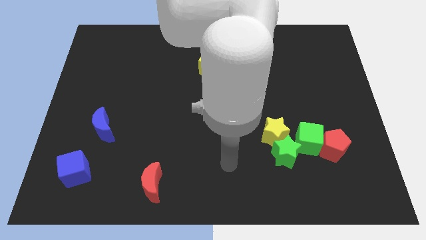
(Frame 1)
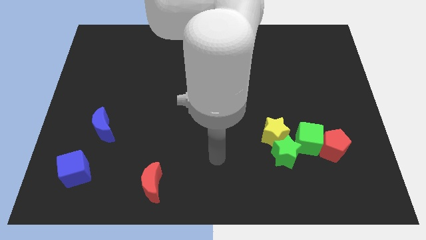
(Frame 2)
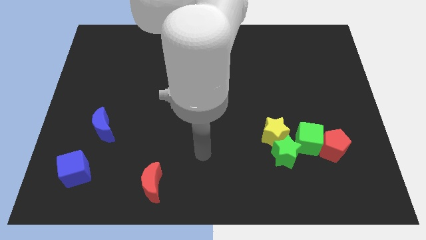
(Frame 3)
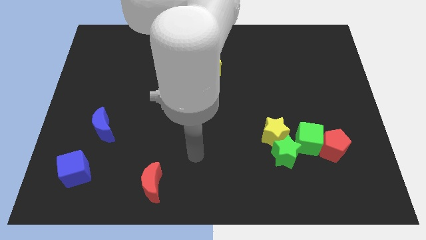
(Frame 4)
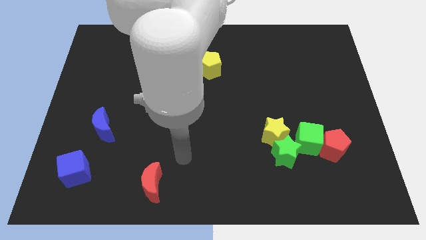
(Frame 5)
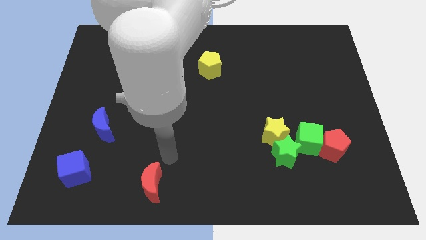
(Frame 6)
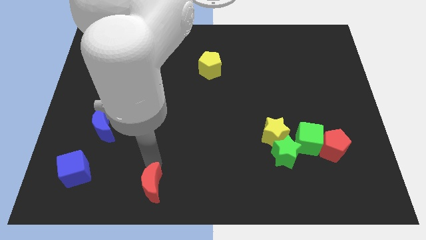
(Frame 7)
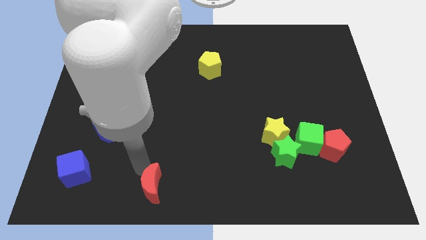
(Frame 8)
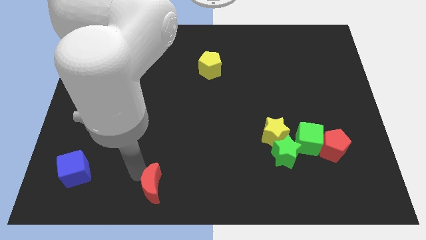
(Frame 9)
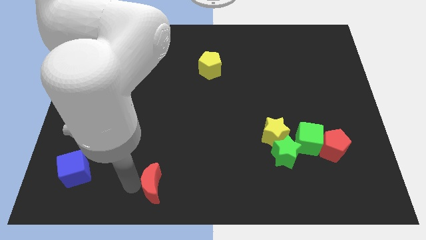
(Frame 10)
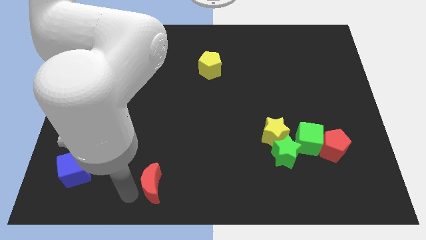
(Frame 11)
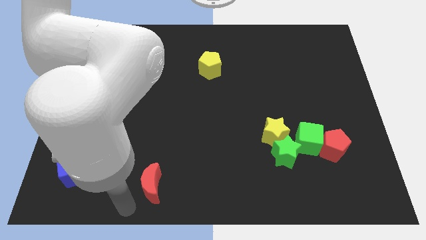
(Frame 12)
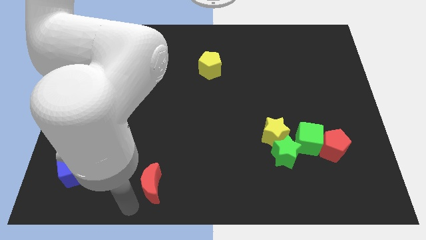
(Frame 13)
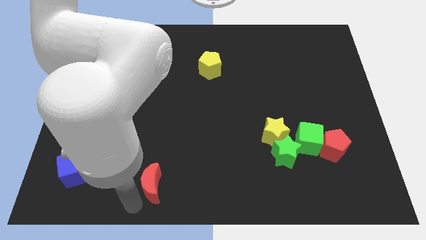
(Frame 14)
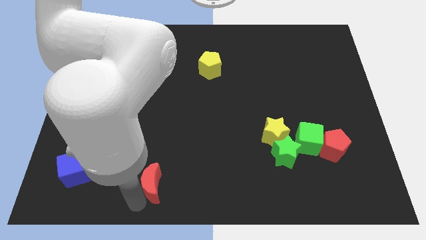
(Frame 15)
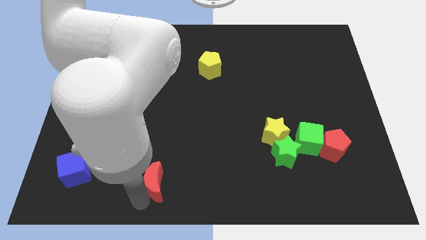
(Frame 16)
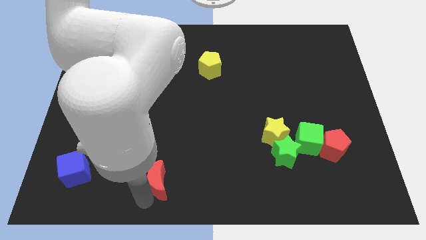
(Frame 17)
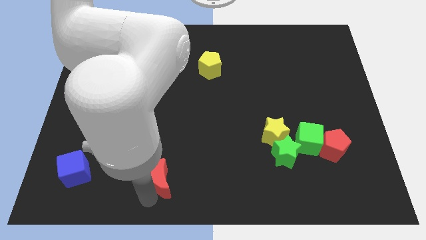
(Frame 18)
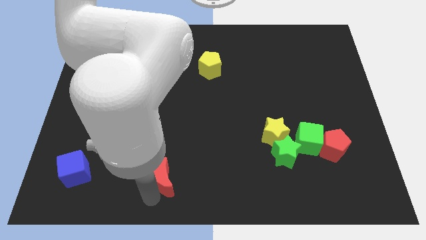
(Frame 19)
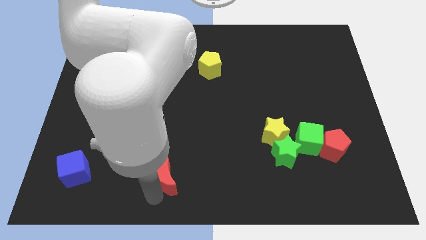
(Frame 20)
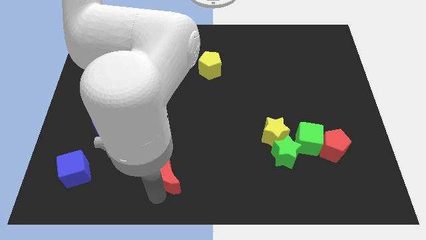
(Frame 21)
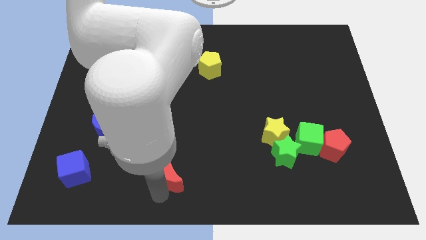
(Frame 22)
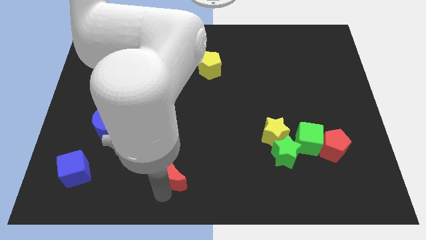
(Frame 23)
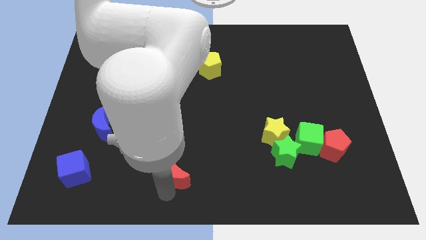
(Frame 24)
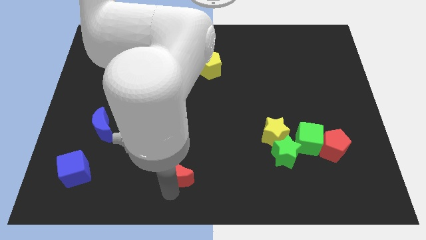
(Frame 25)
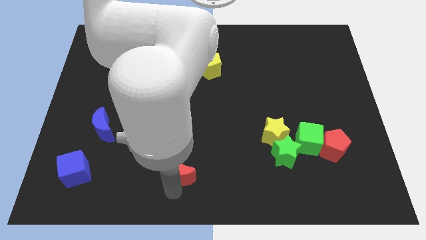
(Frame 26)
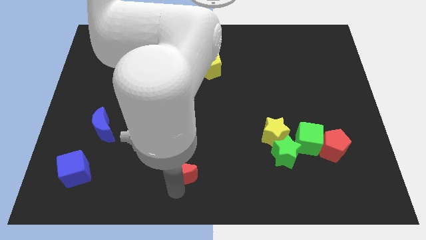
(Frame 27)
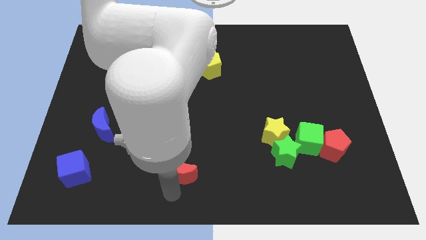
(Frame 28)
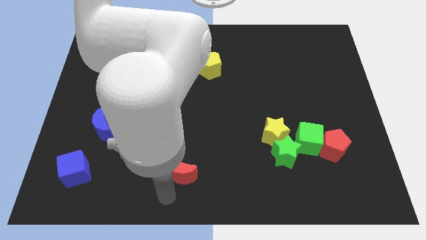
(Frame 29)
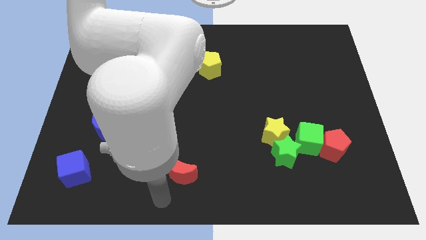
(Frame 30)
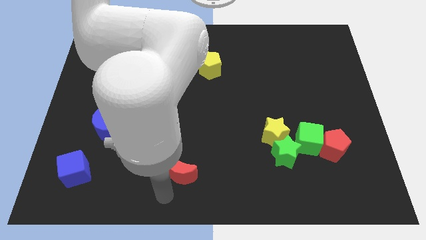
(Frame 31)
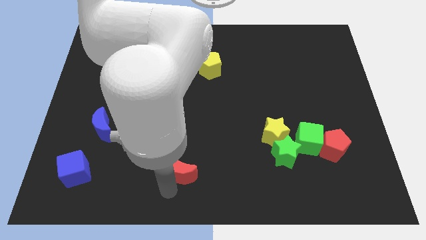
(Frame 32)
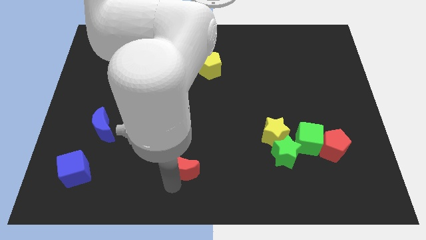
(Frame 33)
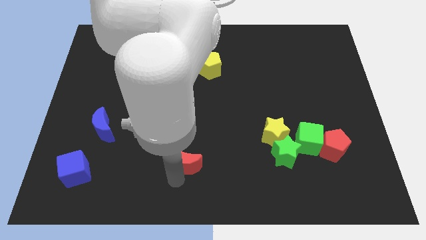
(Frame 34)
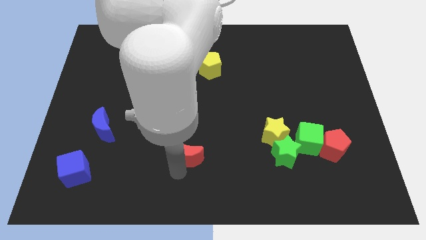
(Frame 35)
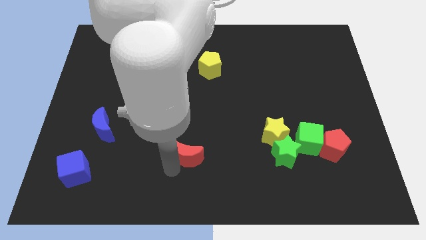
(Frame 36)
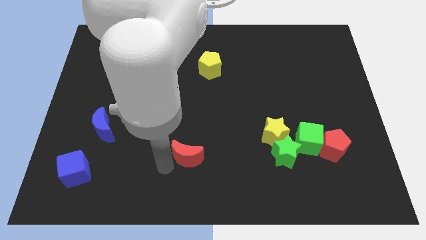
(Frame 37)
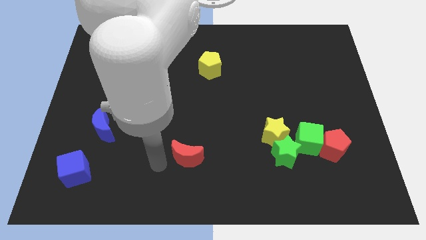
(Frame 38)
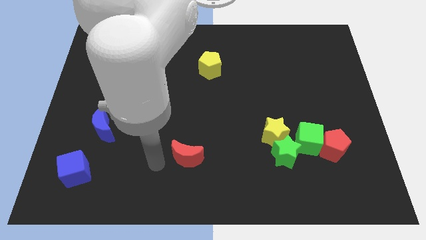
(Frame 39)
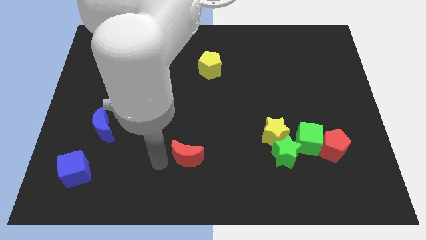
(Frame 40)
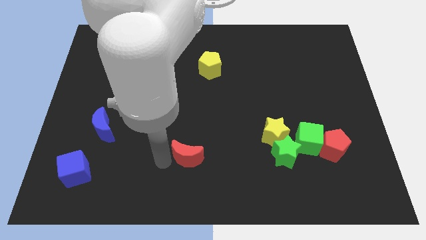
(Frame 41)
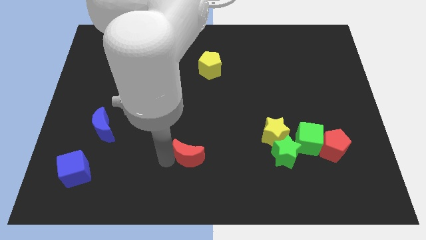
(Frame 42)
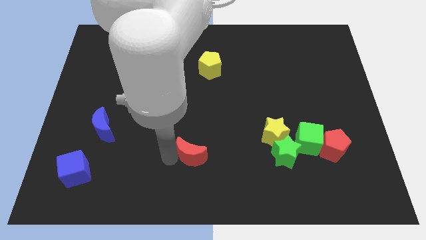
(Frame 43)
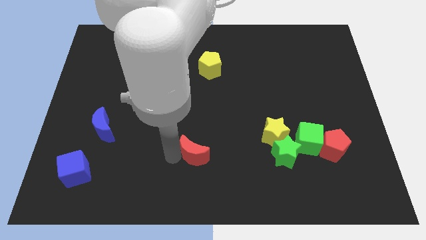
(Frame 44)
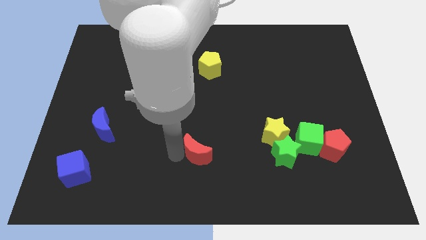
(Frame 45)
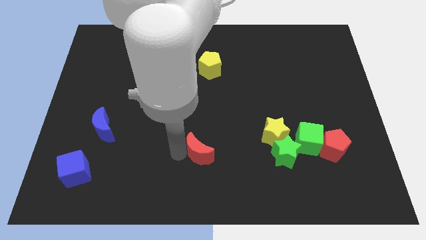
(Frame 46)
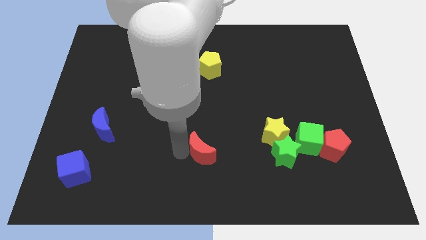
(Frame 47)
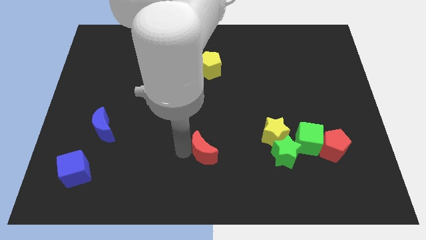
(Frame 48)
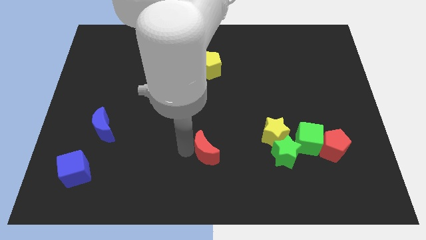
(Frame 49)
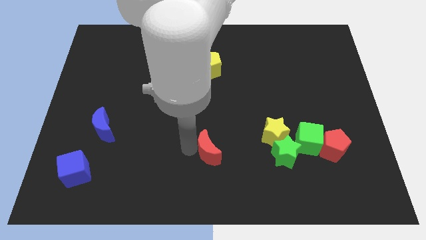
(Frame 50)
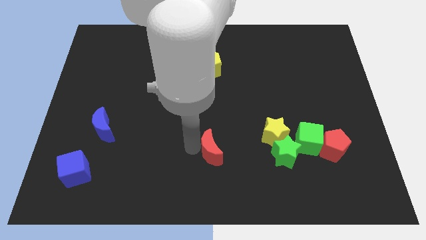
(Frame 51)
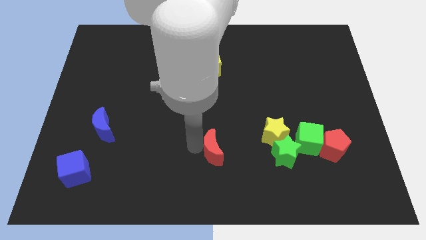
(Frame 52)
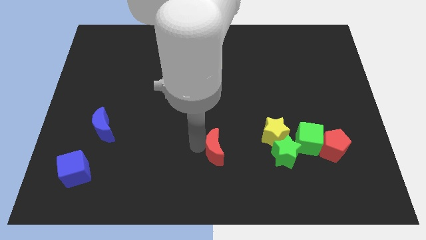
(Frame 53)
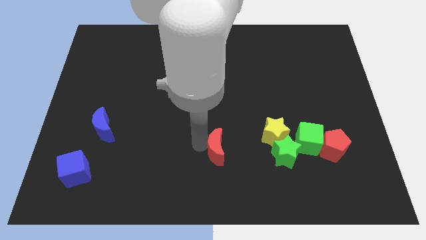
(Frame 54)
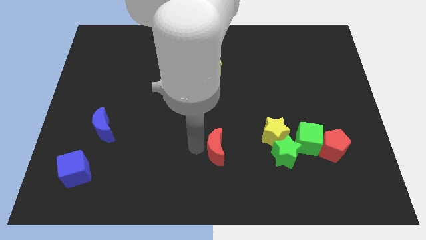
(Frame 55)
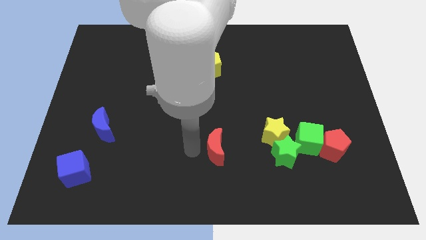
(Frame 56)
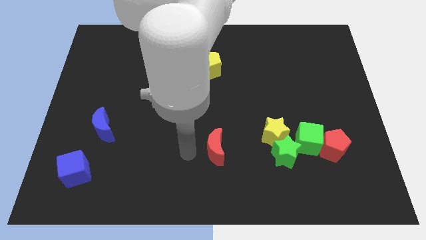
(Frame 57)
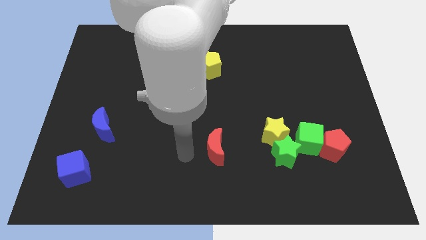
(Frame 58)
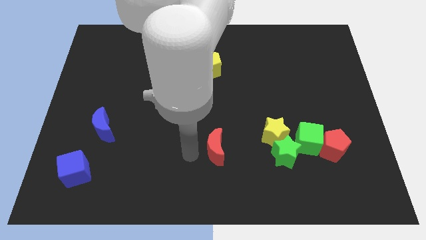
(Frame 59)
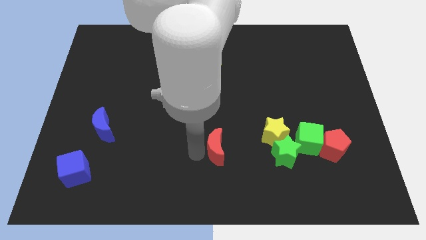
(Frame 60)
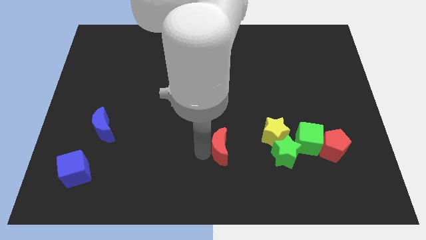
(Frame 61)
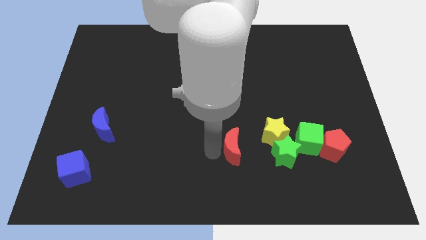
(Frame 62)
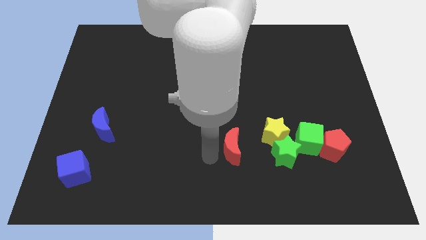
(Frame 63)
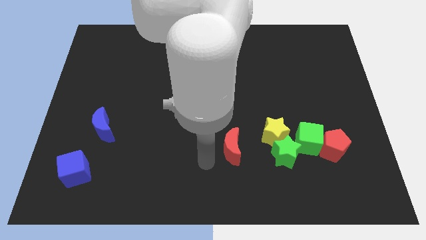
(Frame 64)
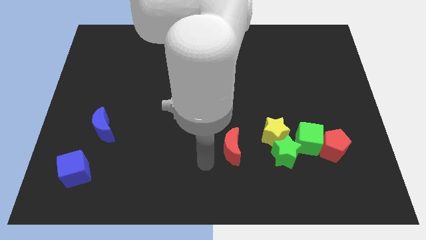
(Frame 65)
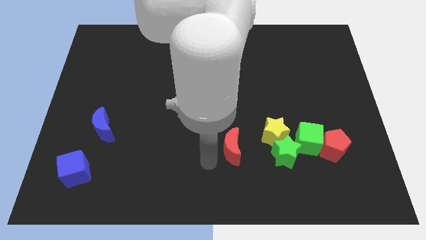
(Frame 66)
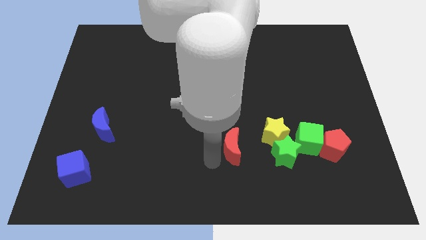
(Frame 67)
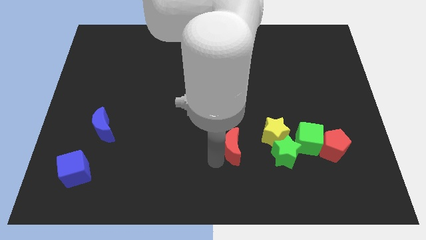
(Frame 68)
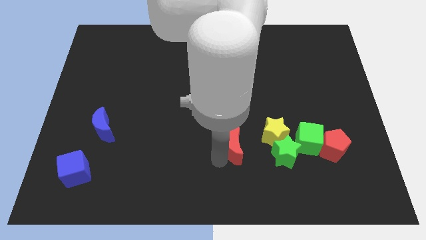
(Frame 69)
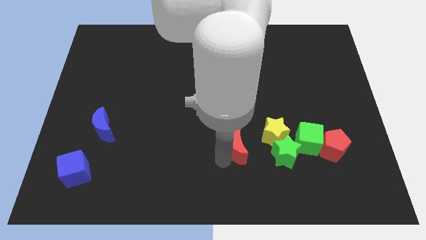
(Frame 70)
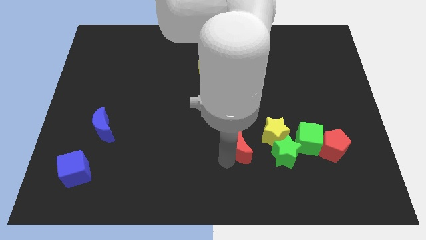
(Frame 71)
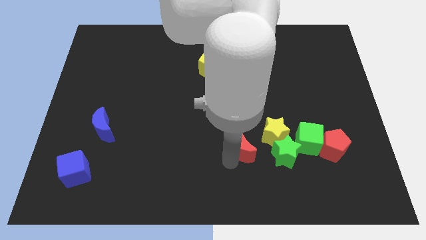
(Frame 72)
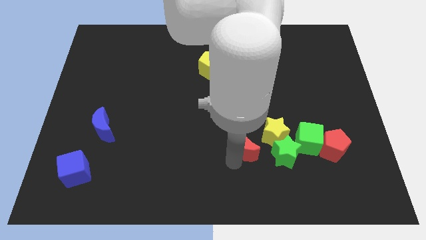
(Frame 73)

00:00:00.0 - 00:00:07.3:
slide the red moon to the top left side of the green star
